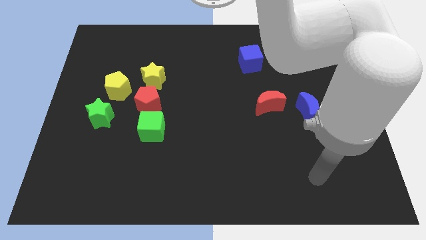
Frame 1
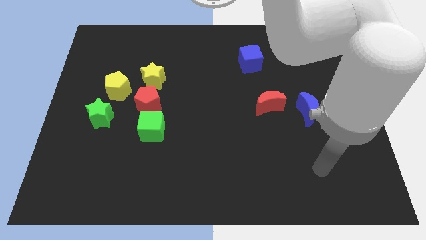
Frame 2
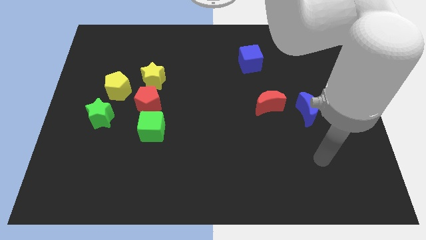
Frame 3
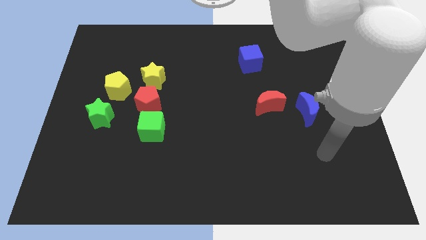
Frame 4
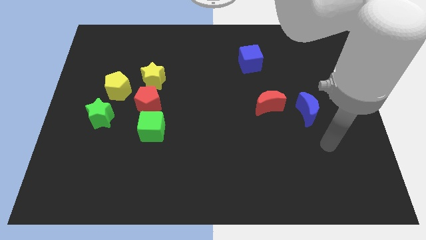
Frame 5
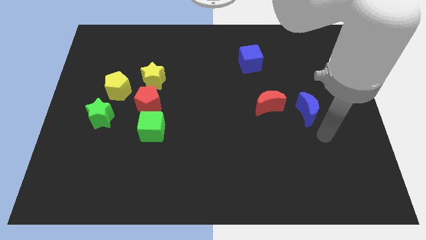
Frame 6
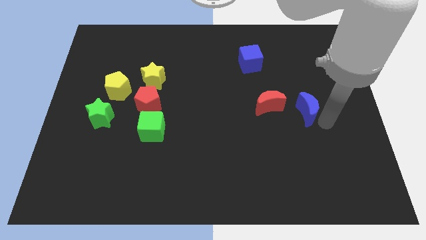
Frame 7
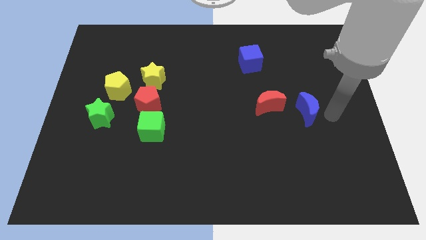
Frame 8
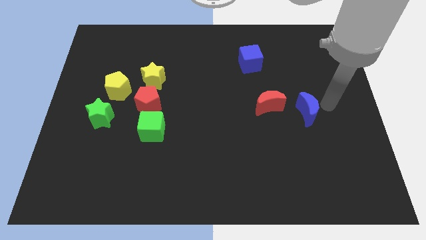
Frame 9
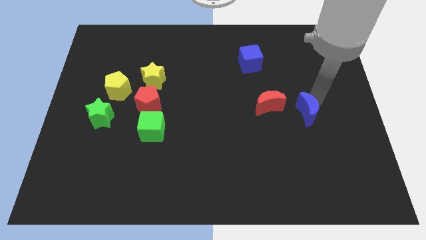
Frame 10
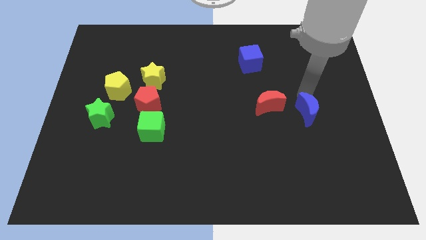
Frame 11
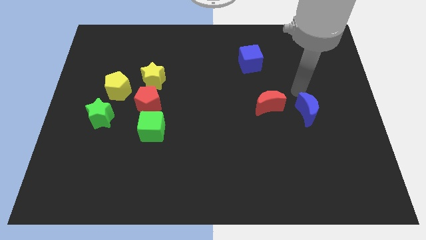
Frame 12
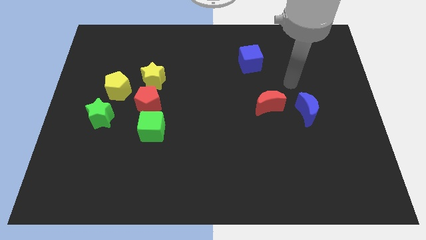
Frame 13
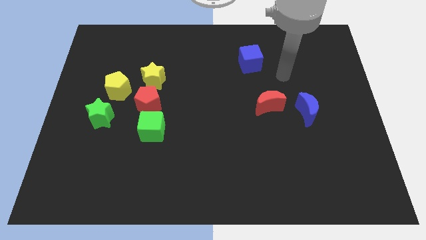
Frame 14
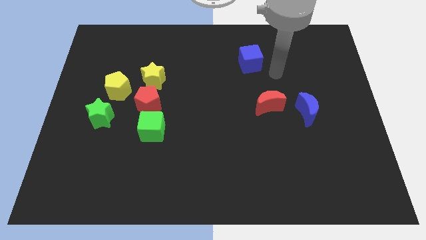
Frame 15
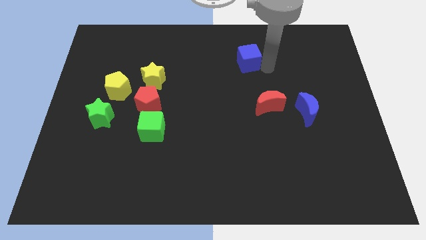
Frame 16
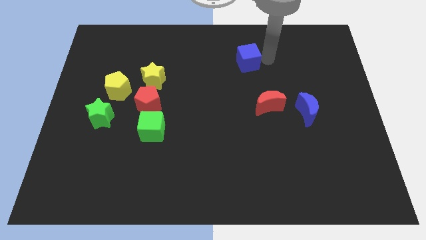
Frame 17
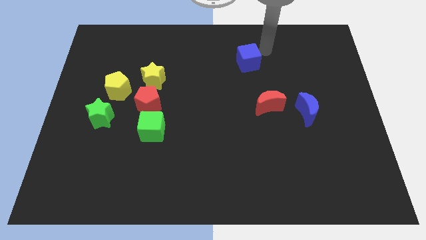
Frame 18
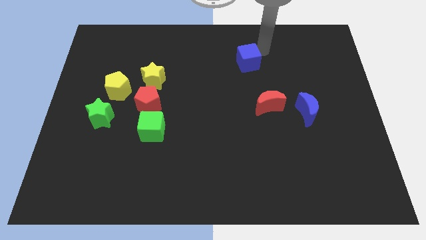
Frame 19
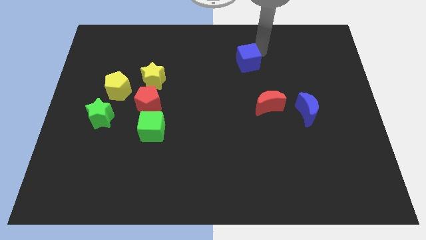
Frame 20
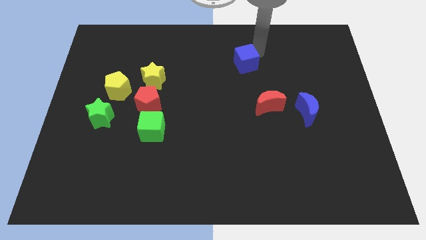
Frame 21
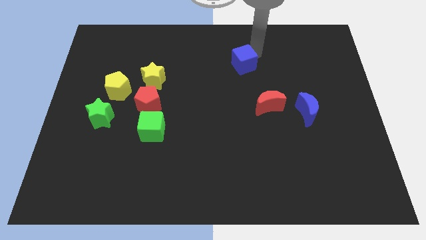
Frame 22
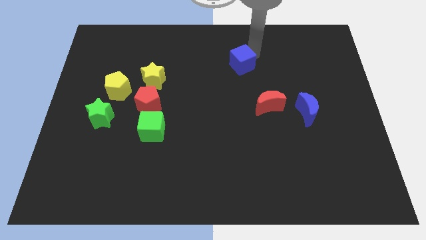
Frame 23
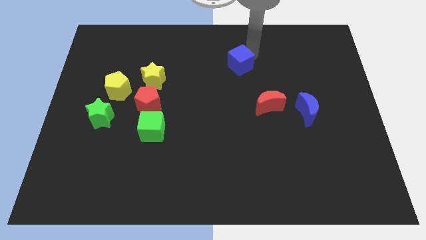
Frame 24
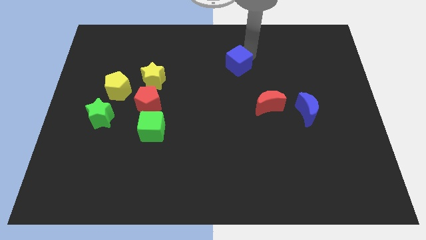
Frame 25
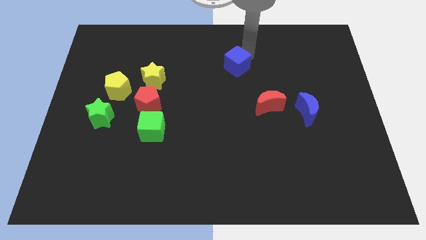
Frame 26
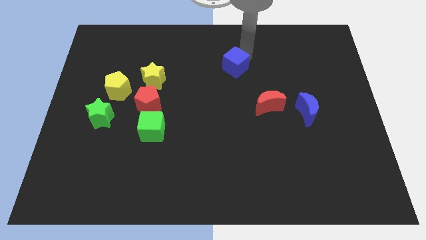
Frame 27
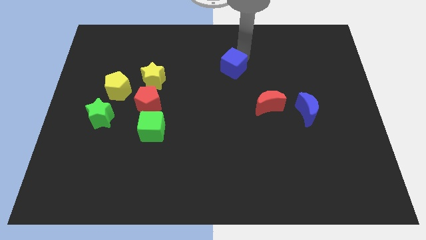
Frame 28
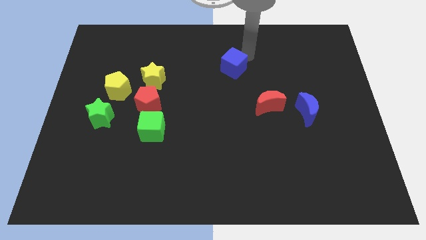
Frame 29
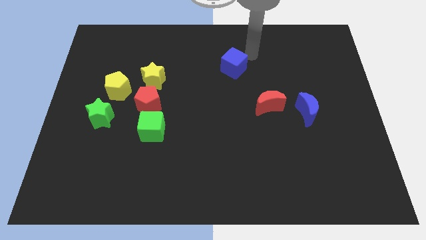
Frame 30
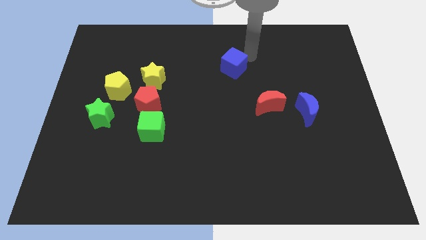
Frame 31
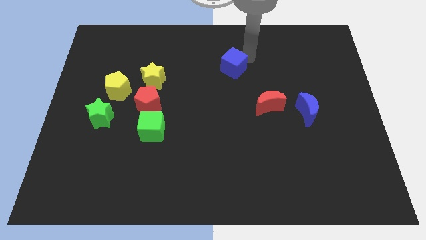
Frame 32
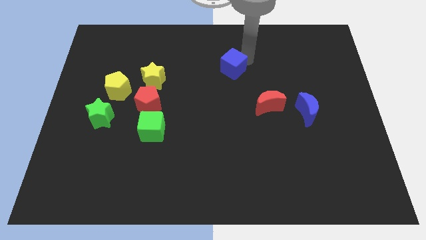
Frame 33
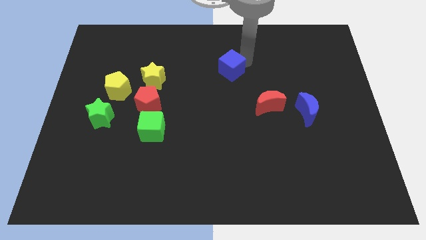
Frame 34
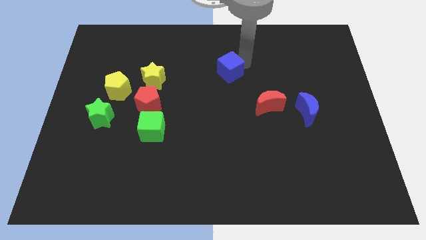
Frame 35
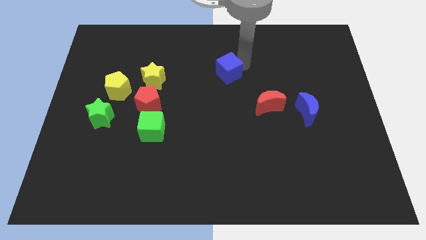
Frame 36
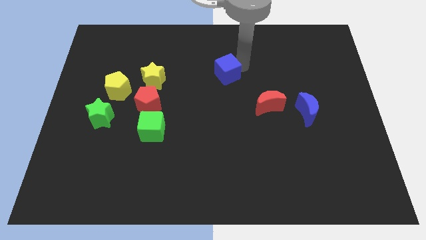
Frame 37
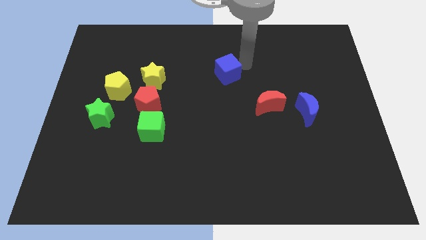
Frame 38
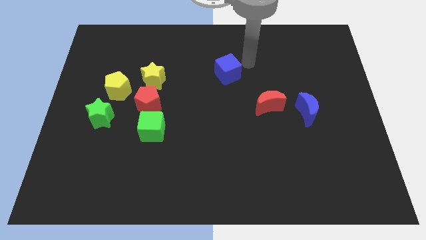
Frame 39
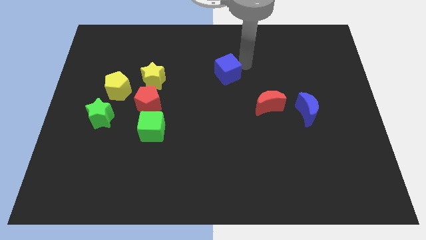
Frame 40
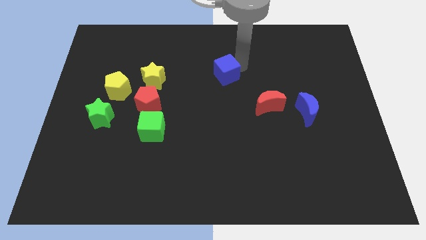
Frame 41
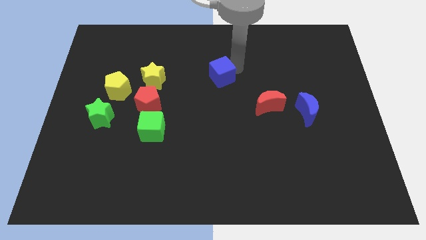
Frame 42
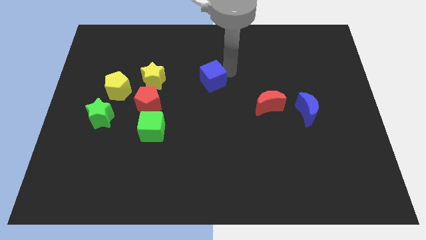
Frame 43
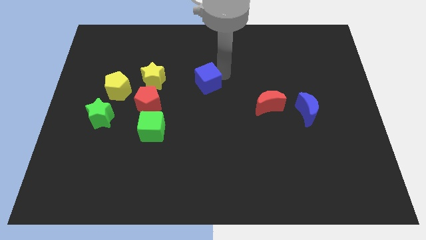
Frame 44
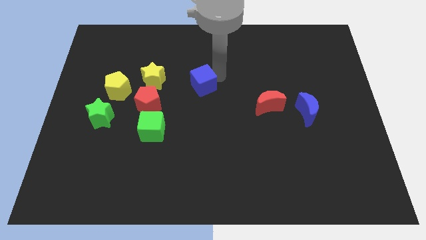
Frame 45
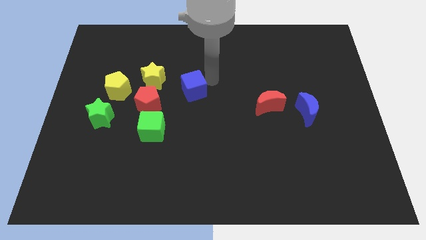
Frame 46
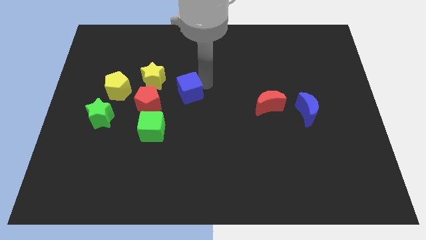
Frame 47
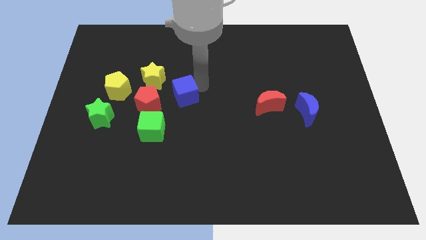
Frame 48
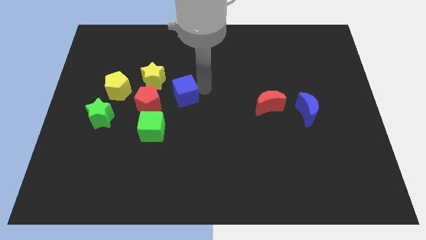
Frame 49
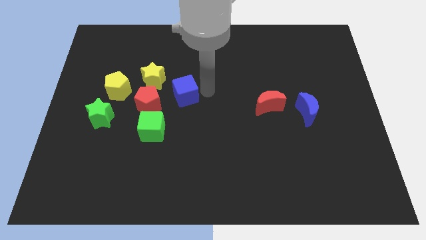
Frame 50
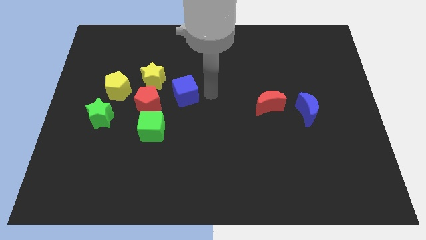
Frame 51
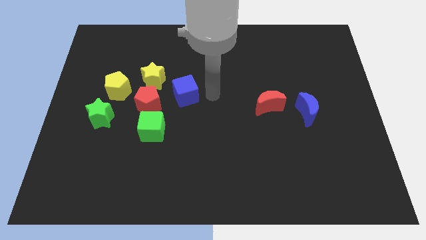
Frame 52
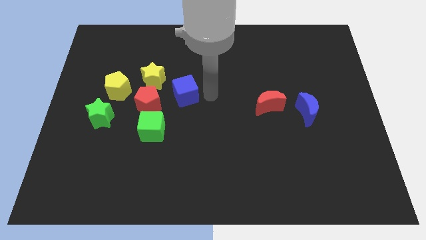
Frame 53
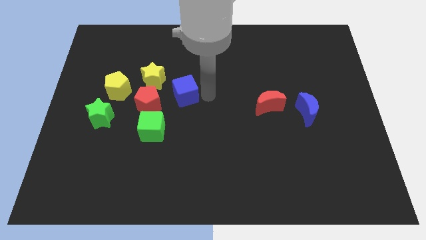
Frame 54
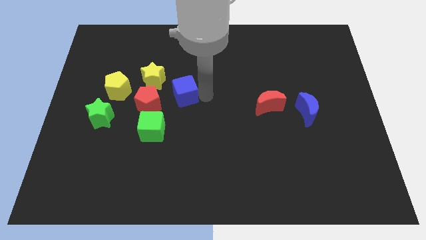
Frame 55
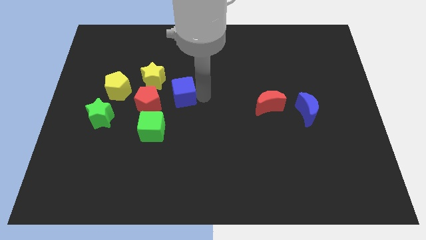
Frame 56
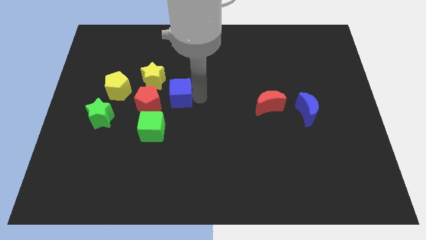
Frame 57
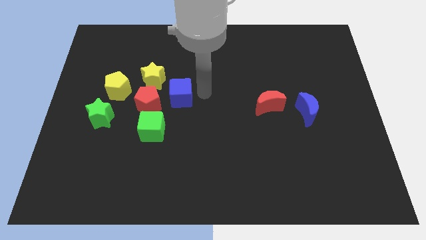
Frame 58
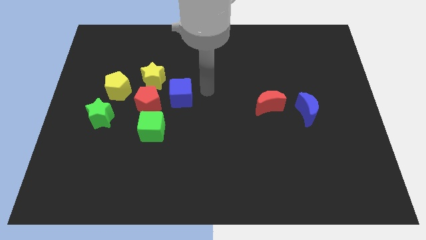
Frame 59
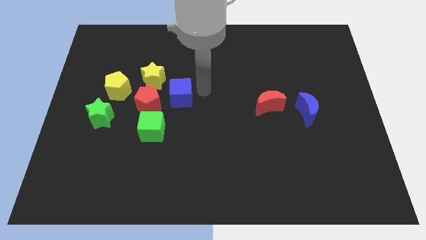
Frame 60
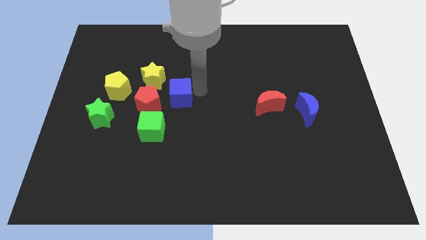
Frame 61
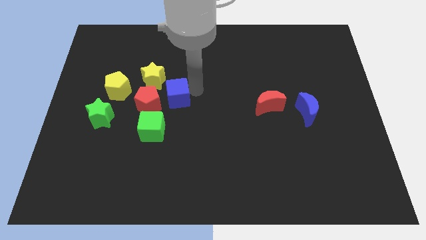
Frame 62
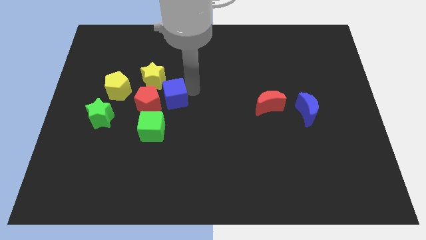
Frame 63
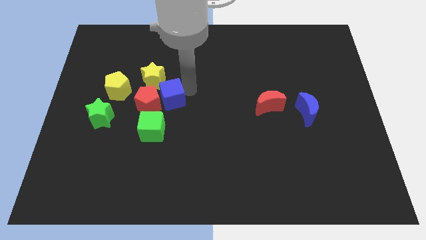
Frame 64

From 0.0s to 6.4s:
move the blue cube close to the red pentagon

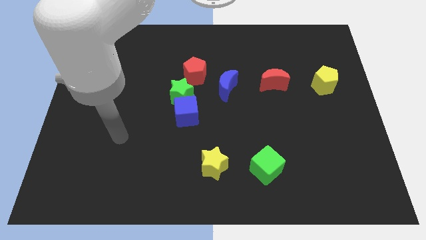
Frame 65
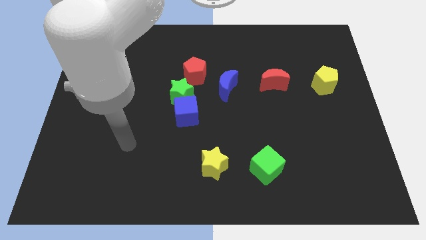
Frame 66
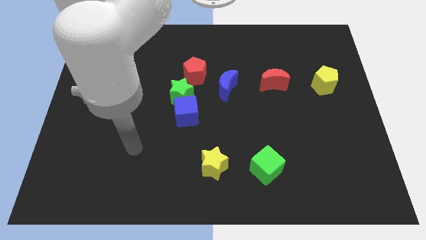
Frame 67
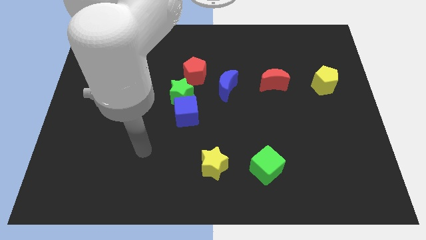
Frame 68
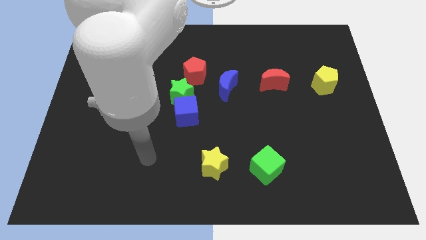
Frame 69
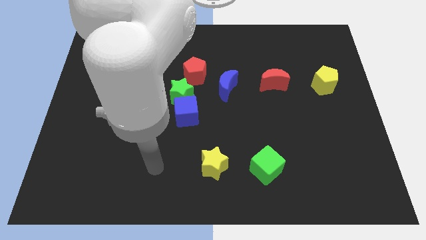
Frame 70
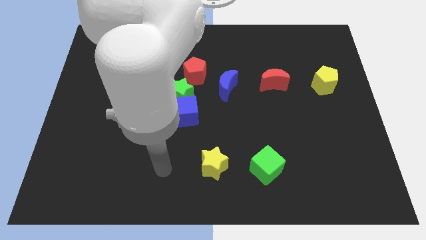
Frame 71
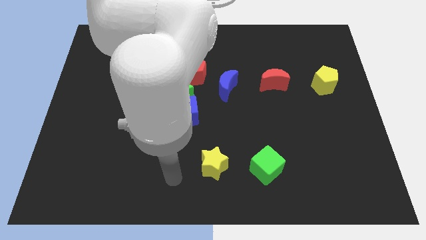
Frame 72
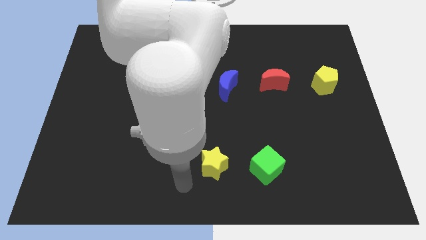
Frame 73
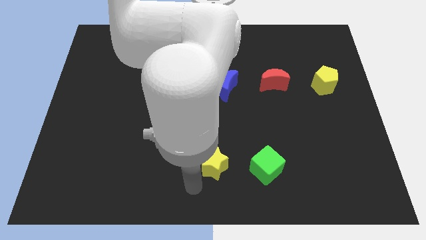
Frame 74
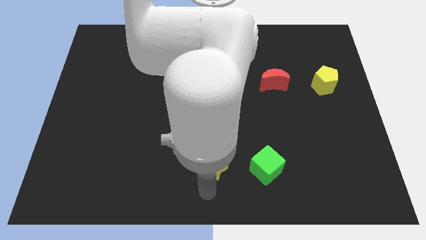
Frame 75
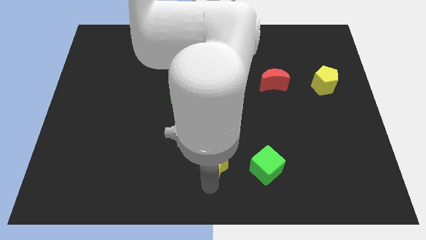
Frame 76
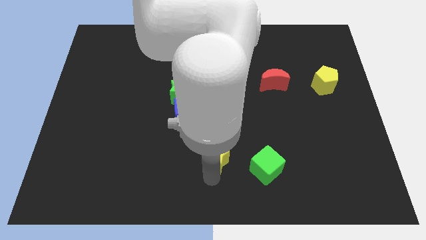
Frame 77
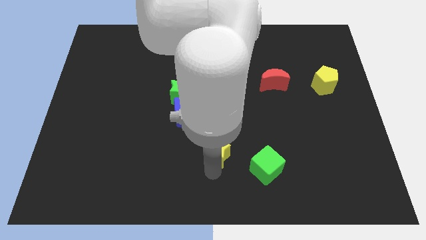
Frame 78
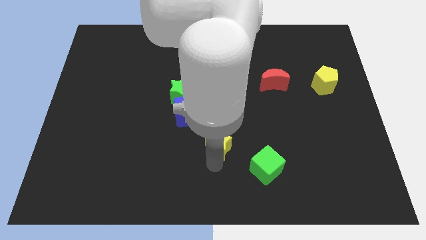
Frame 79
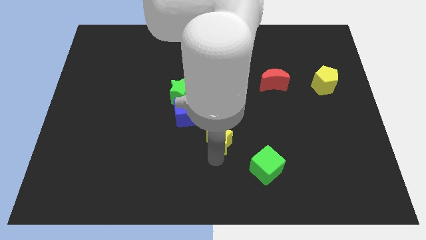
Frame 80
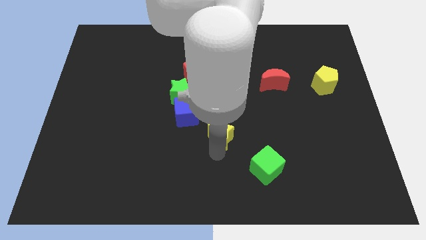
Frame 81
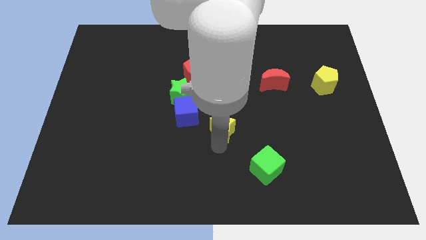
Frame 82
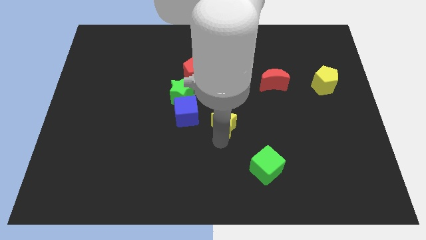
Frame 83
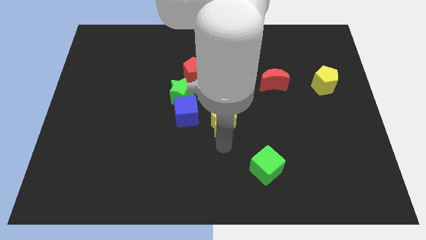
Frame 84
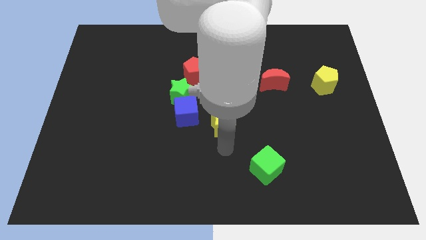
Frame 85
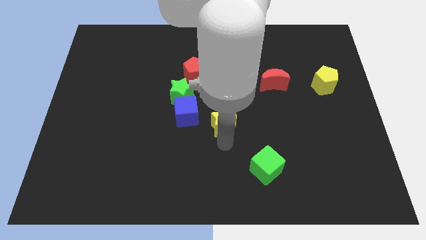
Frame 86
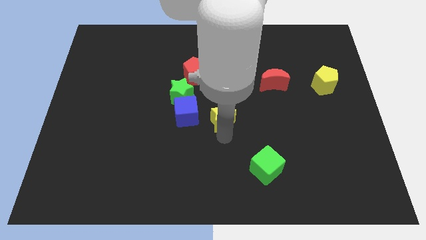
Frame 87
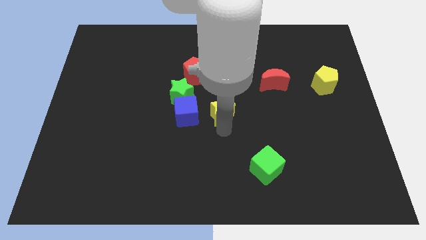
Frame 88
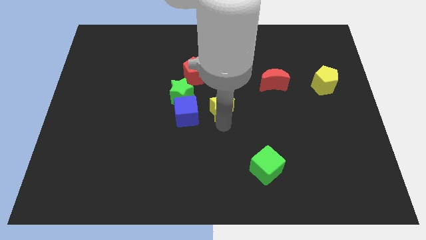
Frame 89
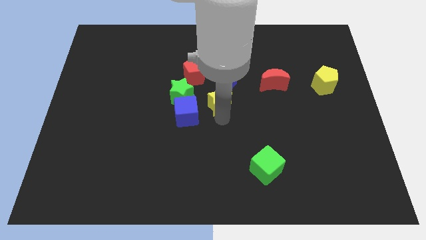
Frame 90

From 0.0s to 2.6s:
push the yellow star close to the blue moon
